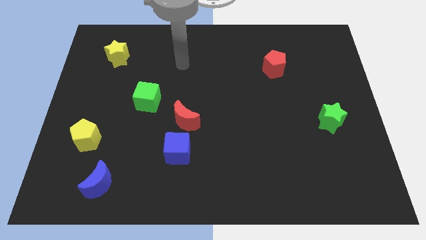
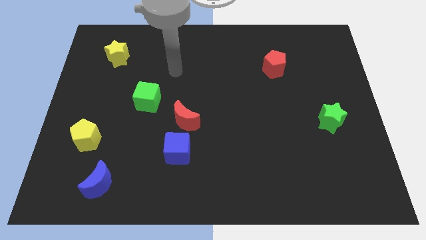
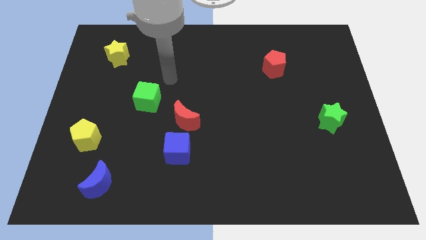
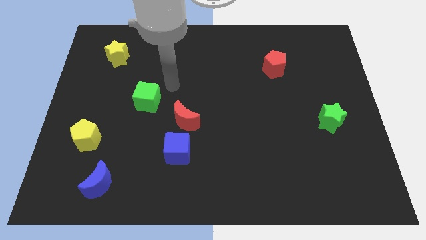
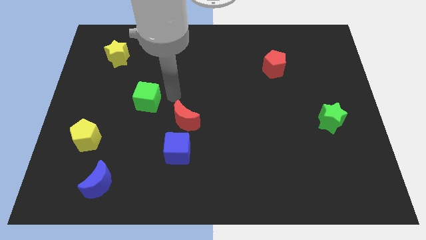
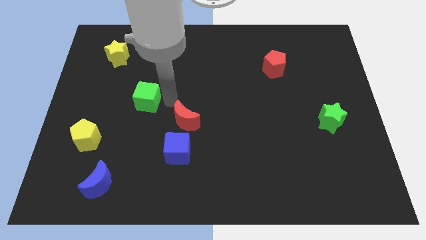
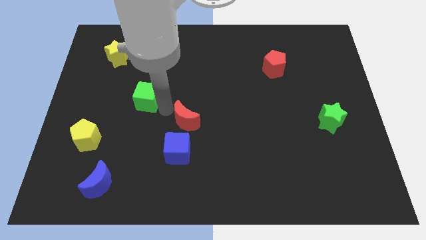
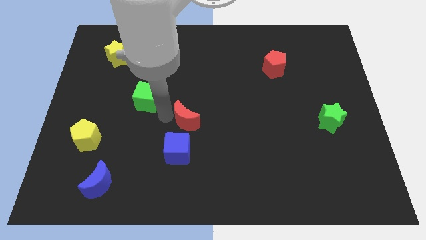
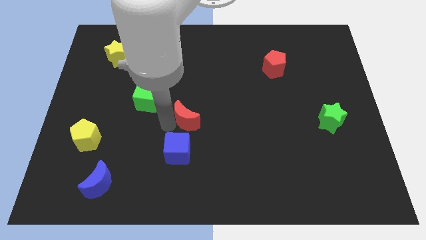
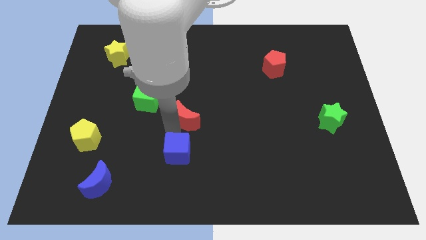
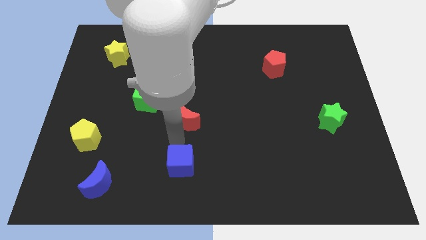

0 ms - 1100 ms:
pull the red moon apart from the blue cube

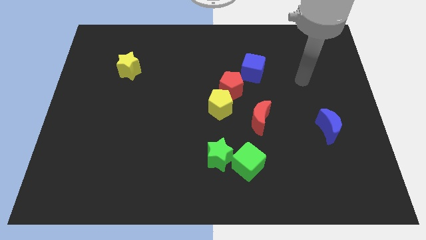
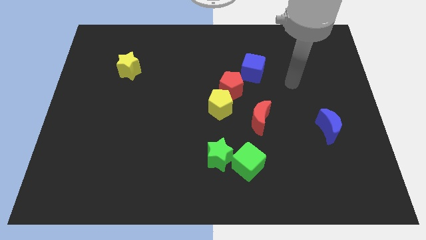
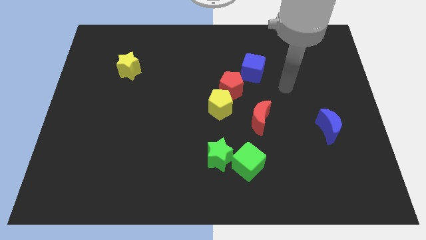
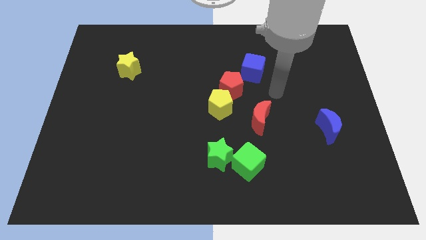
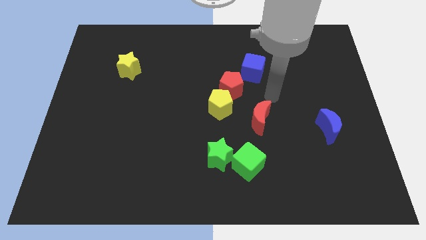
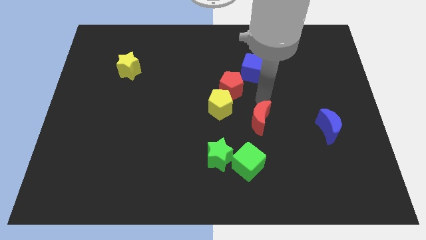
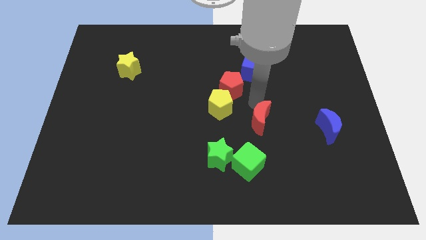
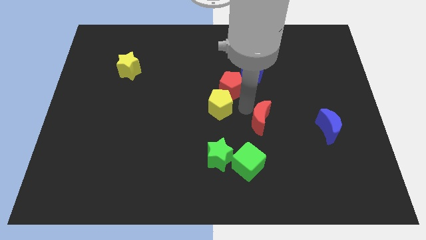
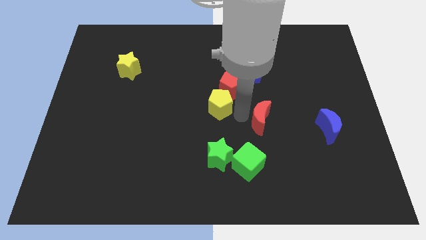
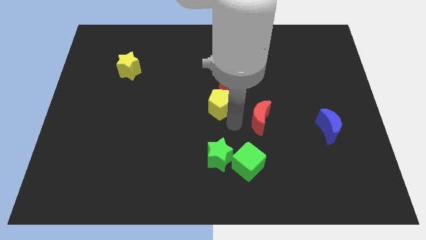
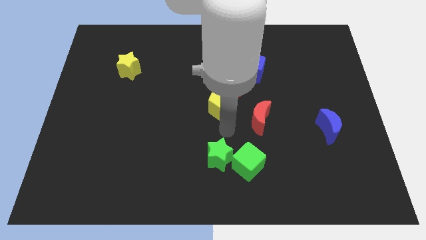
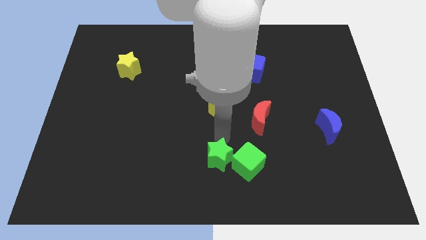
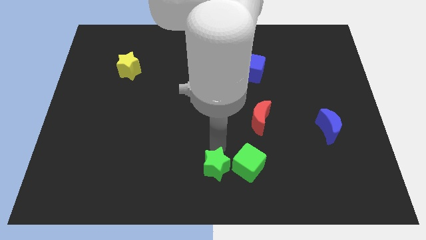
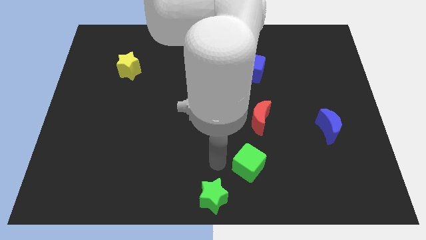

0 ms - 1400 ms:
separate the green cube from the green star

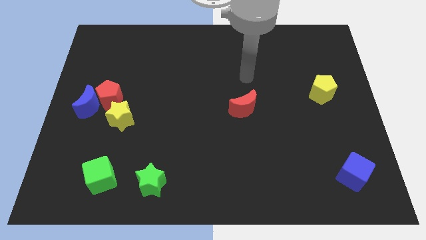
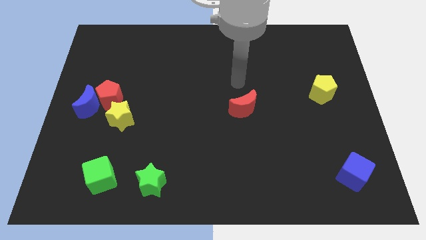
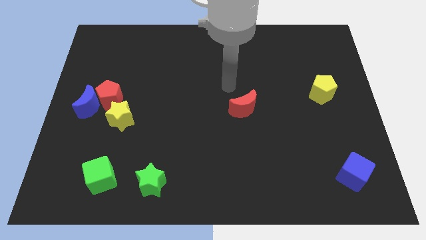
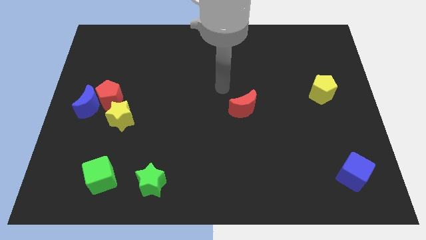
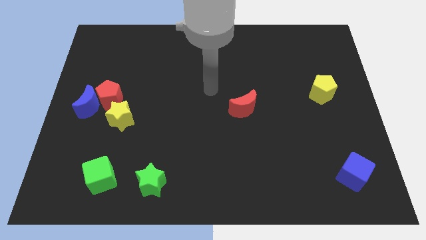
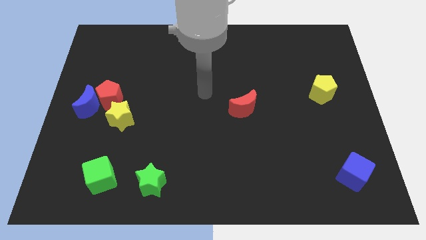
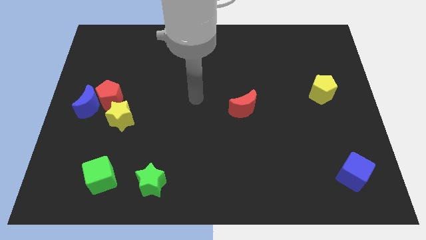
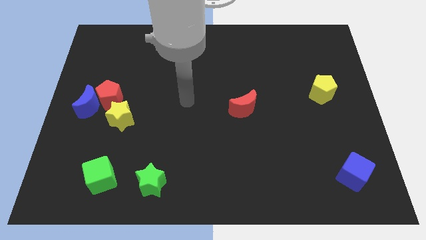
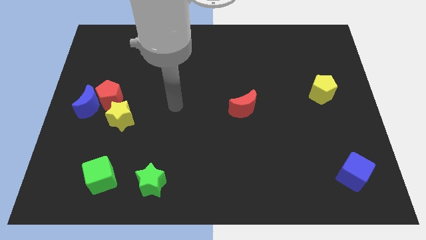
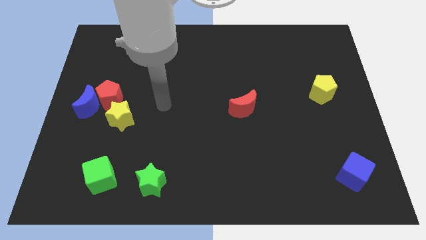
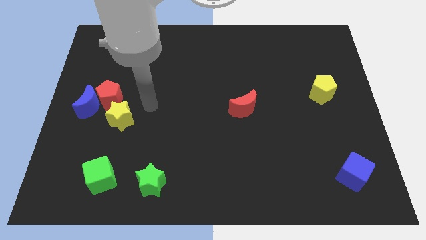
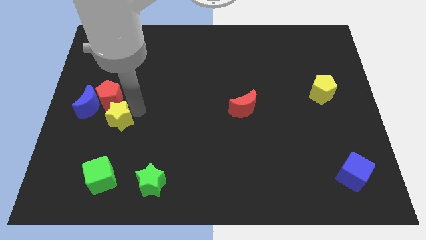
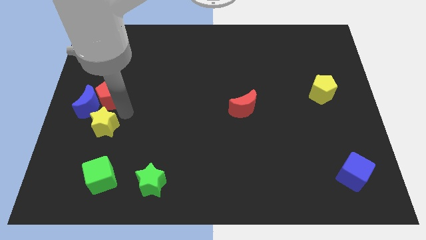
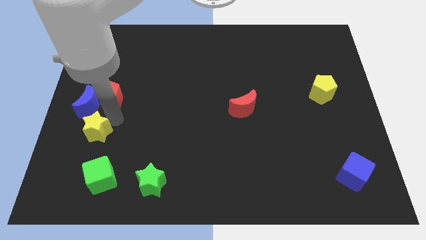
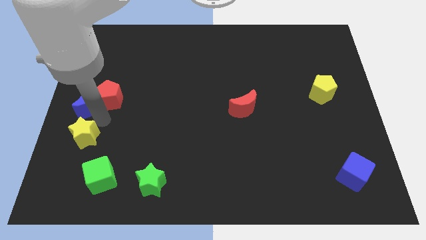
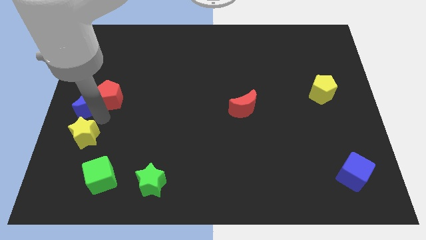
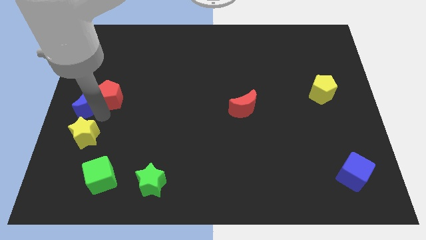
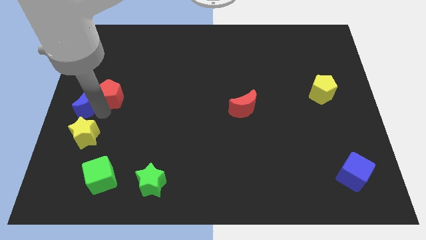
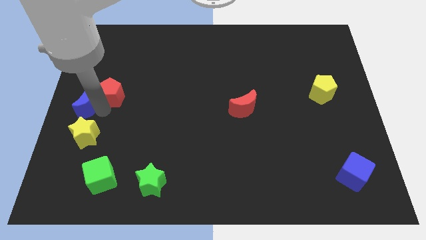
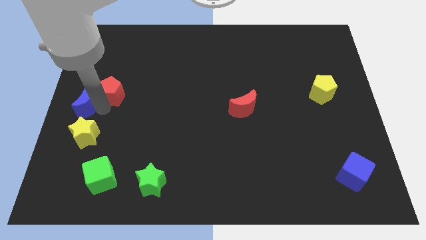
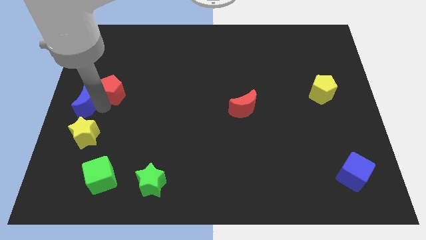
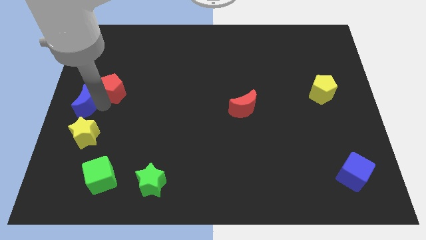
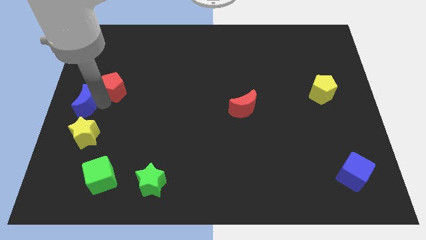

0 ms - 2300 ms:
pull the red pentagon apart from the blue moon and yellow star

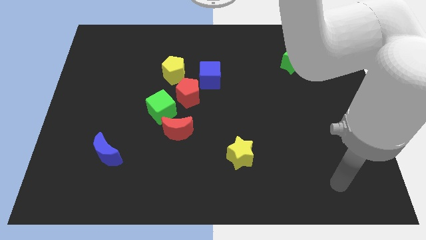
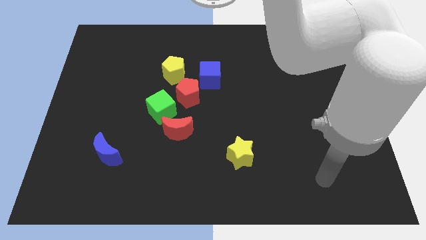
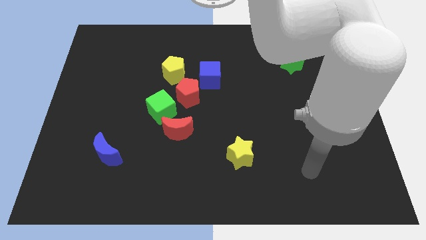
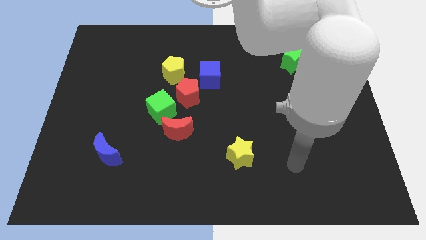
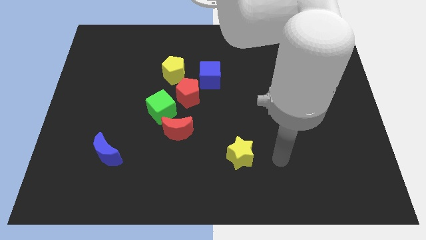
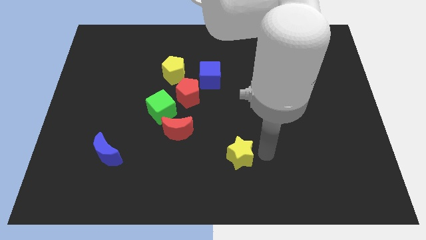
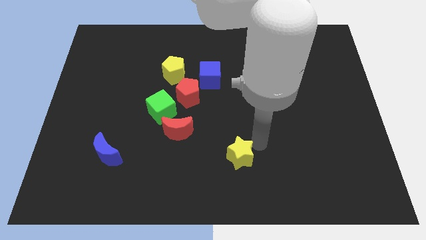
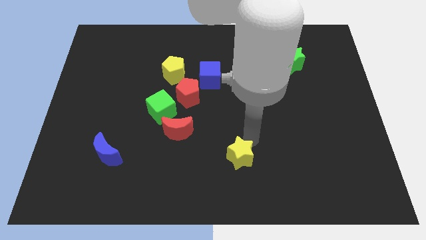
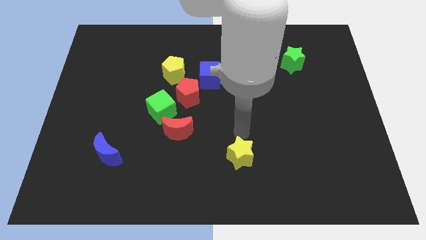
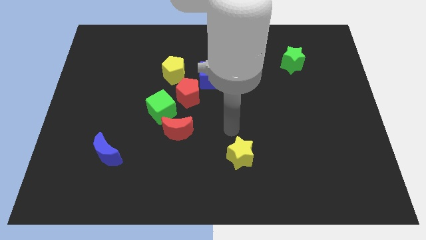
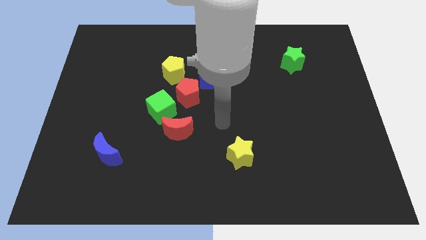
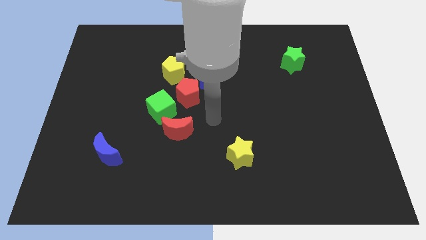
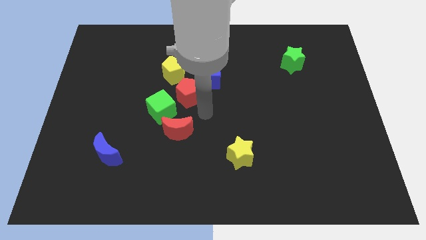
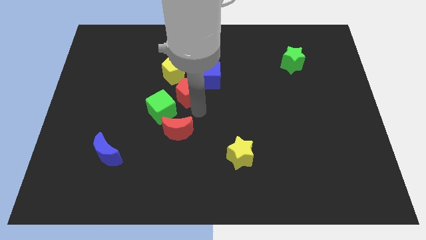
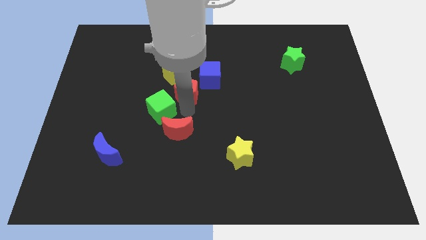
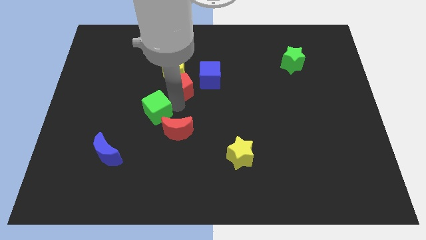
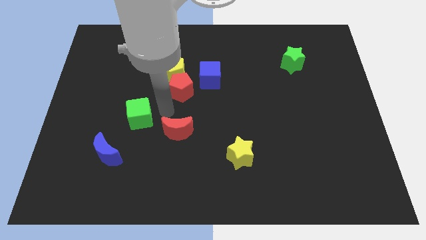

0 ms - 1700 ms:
separate the red moon from the green cube

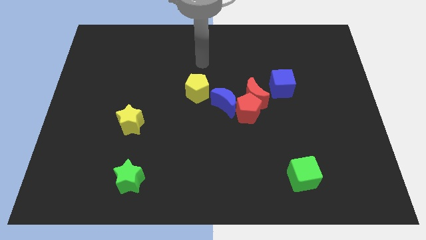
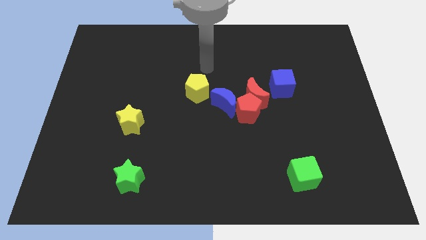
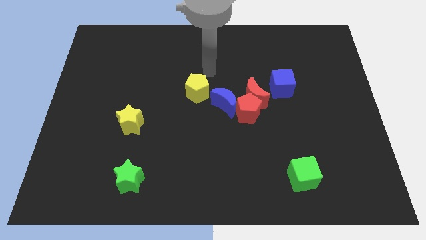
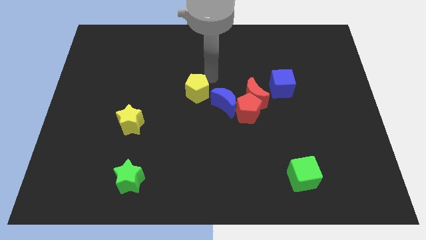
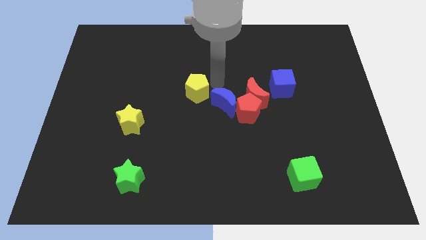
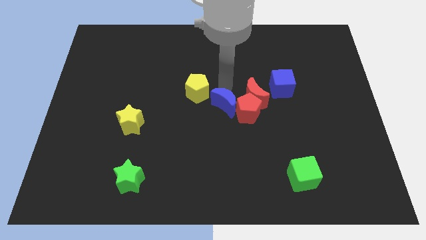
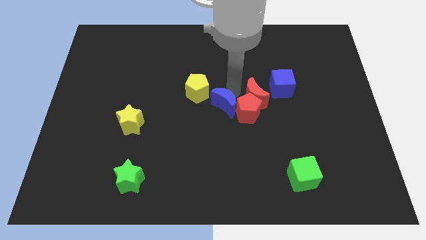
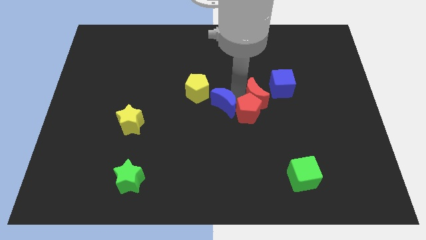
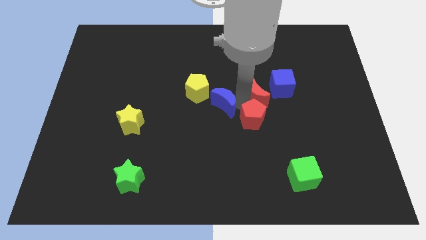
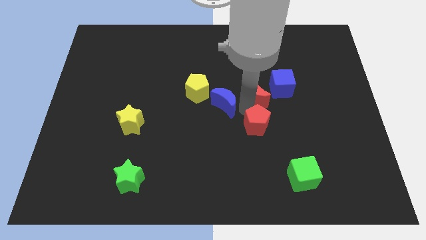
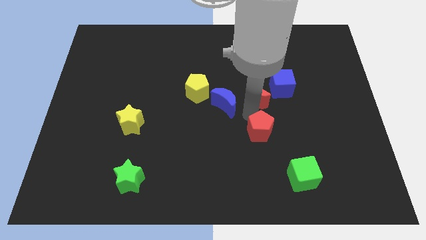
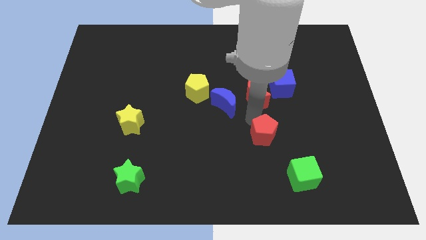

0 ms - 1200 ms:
separate the red pentagon from the red moon and blue moon

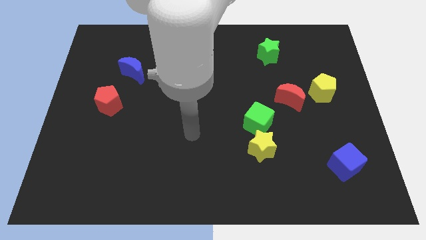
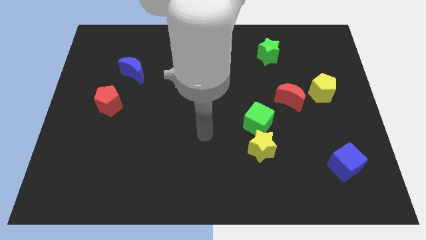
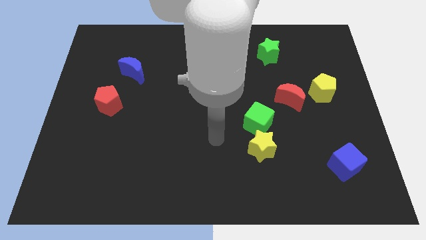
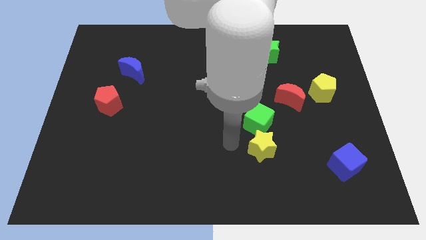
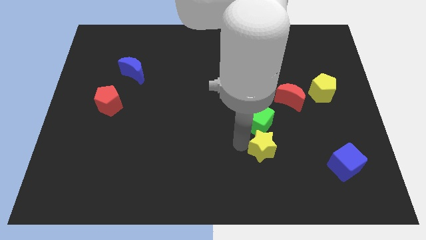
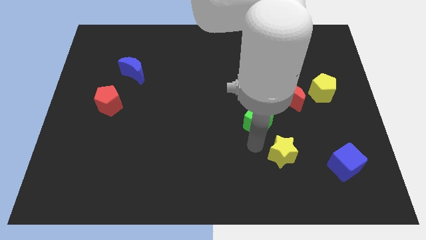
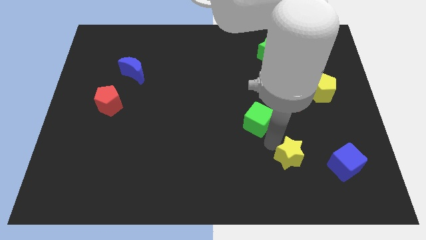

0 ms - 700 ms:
separate the green cube from the yellow star

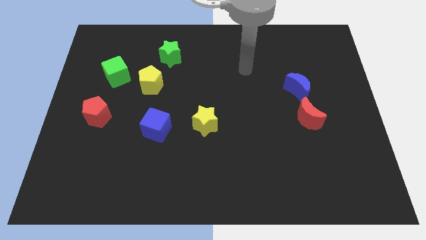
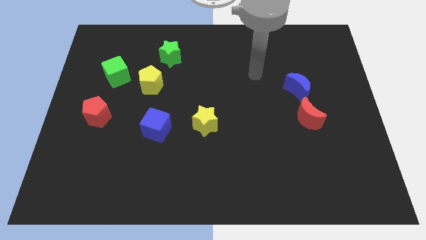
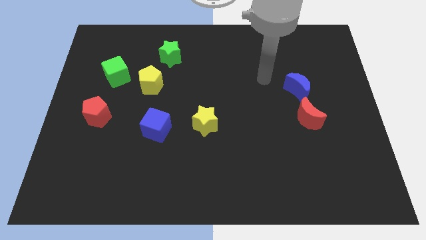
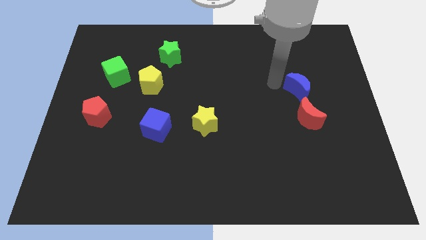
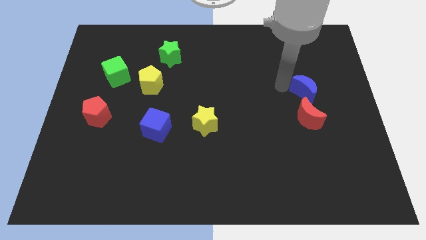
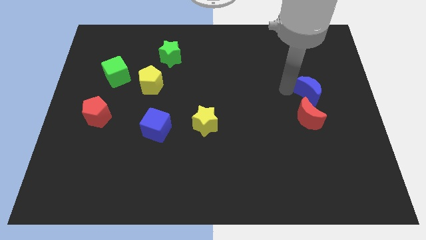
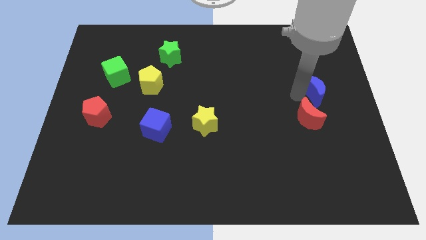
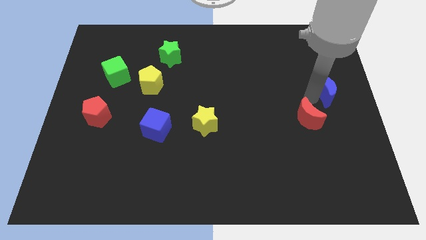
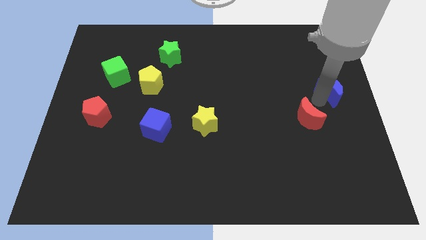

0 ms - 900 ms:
pull the red moon apart from the blue moon

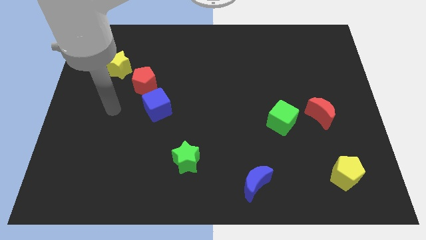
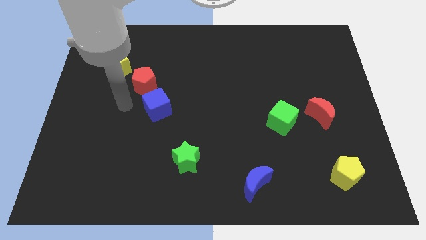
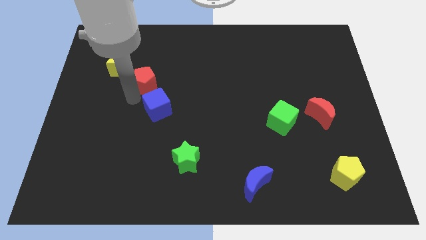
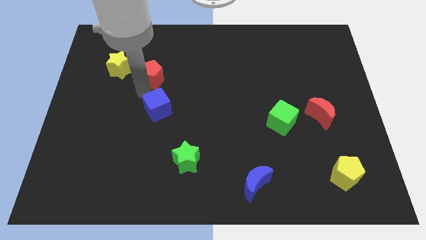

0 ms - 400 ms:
move the blue cube away from the red pentagon
